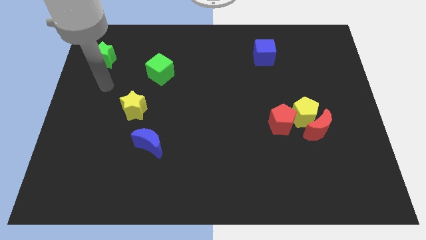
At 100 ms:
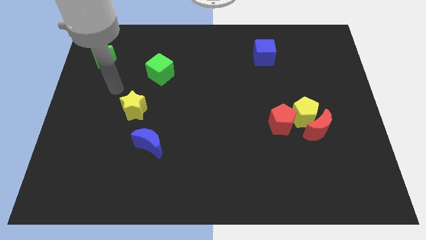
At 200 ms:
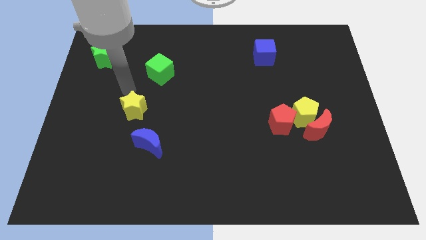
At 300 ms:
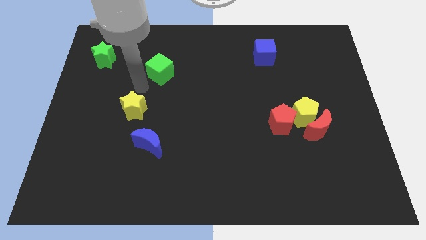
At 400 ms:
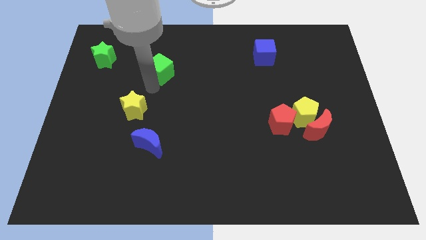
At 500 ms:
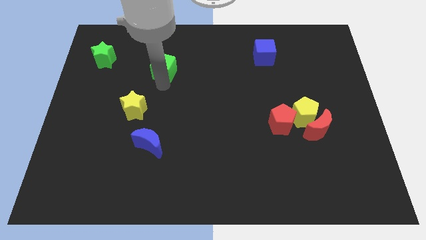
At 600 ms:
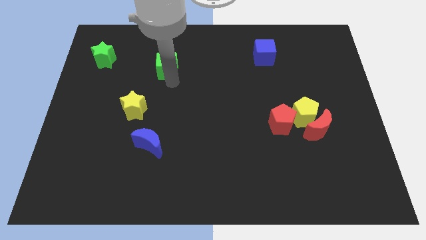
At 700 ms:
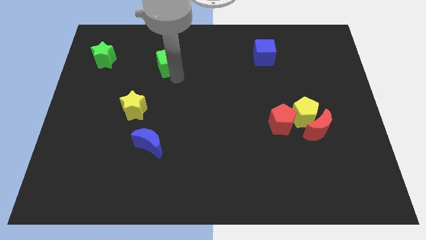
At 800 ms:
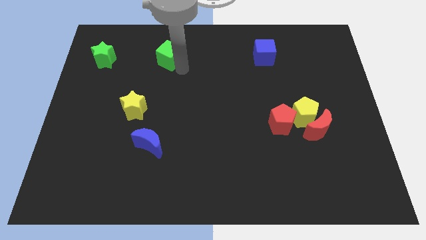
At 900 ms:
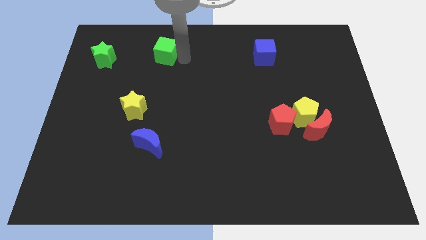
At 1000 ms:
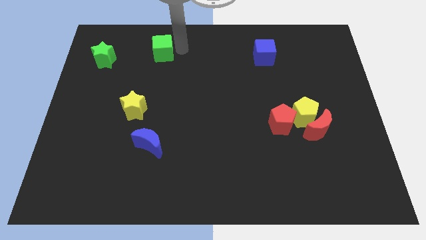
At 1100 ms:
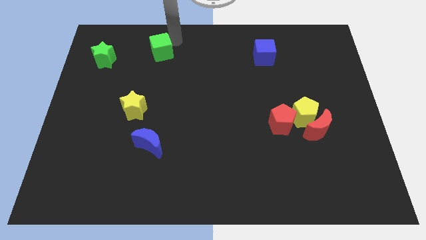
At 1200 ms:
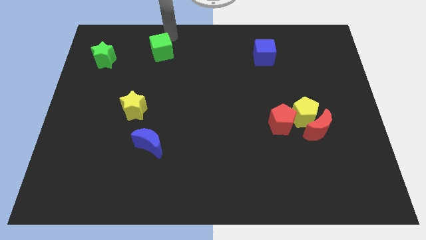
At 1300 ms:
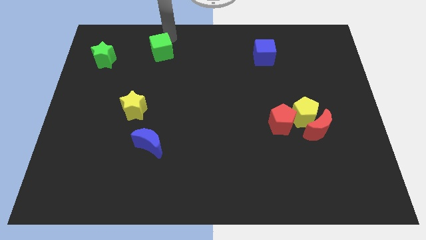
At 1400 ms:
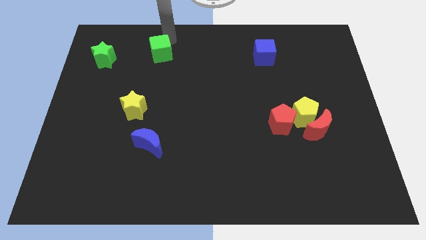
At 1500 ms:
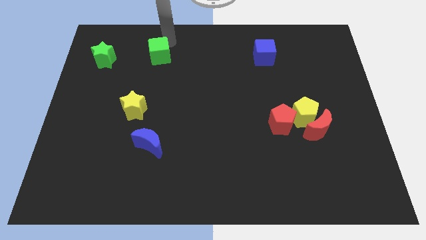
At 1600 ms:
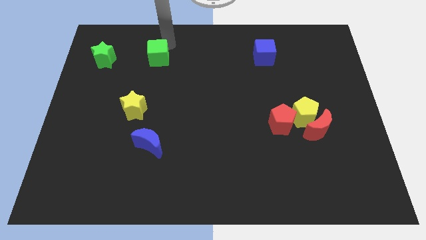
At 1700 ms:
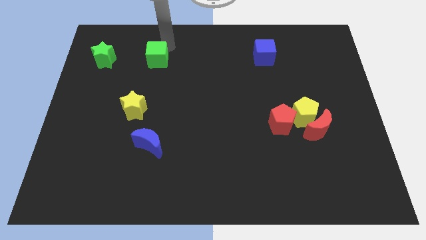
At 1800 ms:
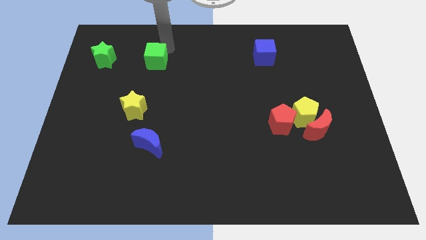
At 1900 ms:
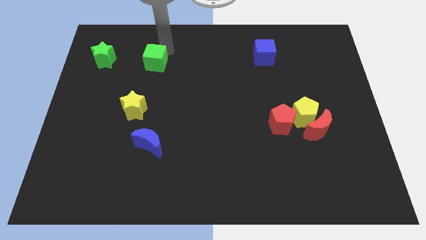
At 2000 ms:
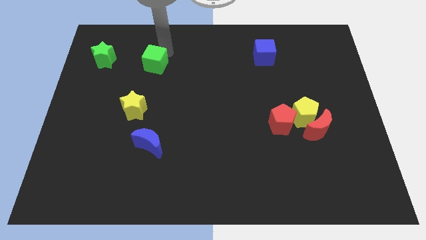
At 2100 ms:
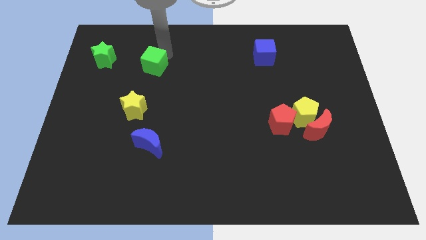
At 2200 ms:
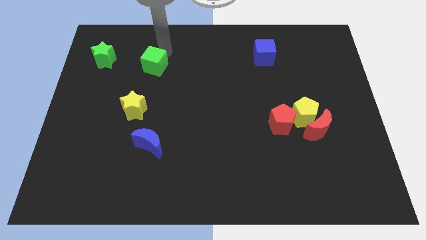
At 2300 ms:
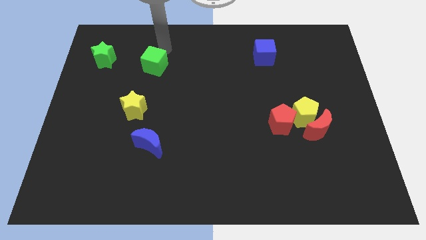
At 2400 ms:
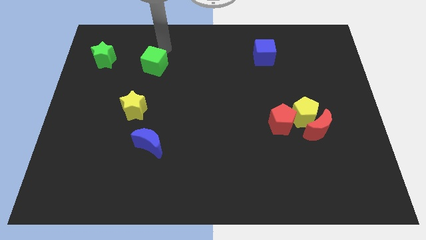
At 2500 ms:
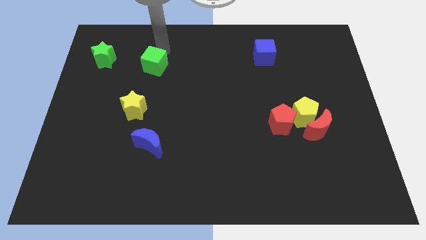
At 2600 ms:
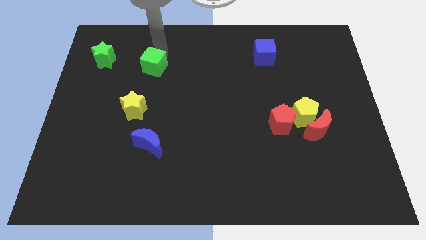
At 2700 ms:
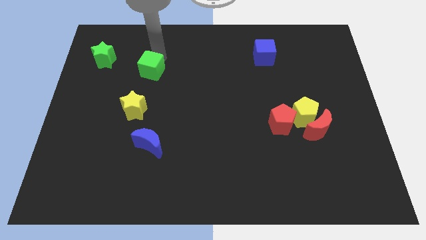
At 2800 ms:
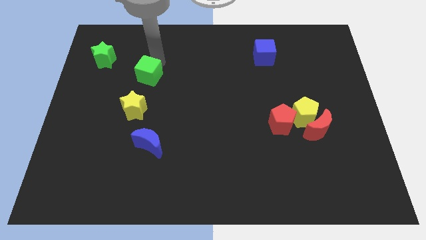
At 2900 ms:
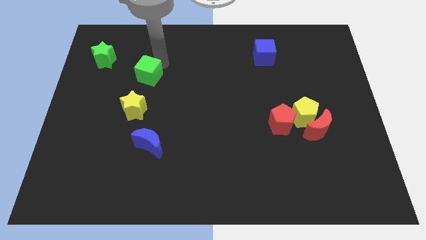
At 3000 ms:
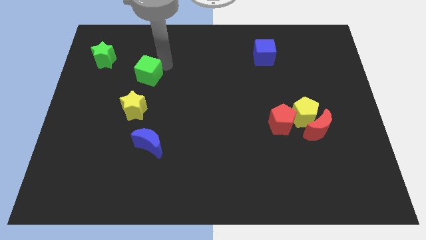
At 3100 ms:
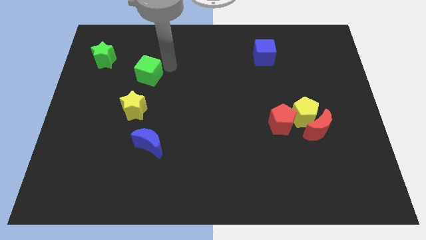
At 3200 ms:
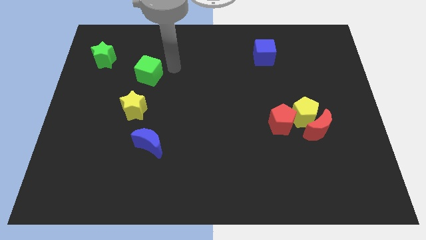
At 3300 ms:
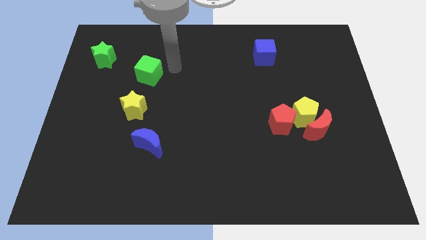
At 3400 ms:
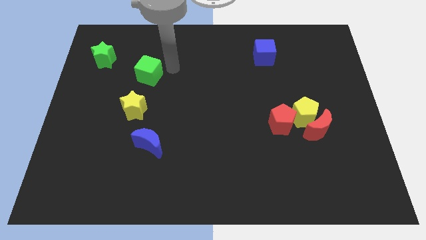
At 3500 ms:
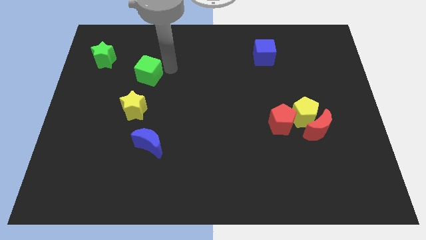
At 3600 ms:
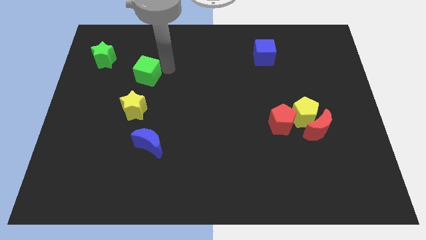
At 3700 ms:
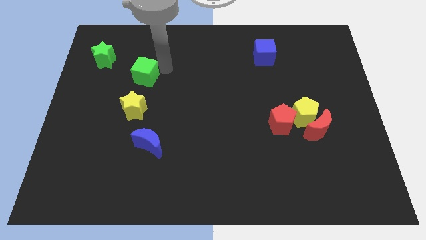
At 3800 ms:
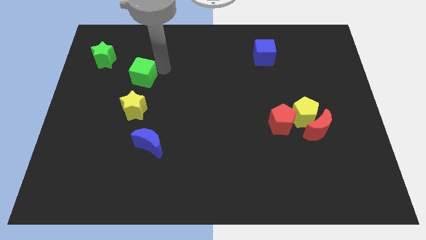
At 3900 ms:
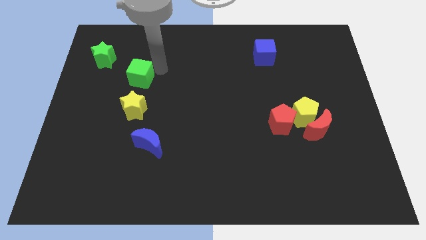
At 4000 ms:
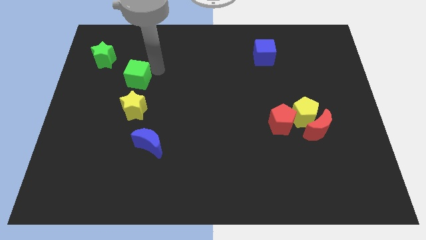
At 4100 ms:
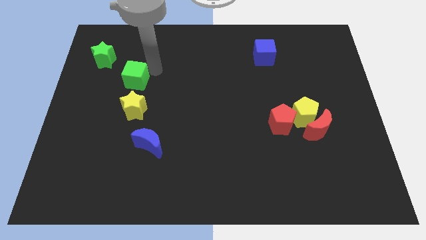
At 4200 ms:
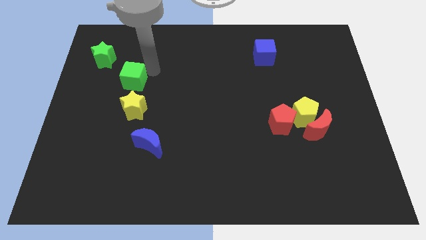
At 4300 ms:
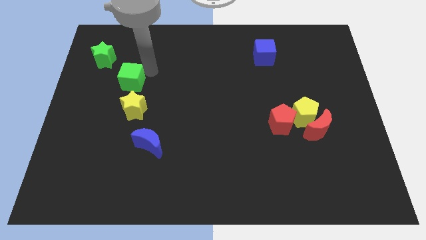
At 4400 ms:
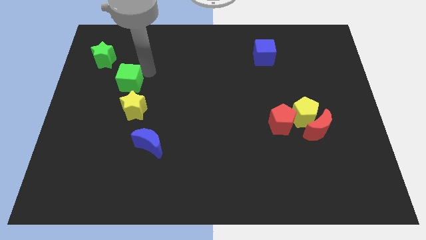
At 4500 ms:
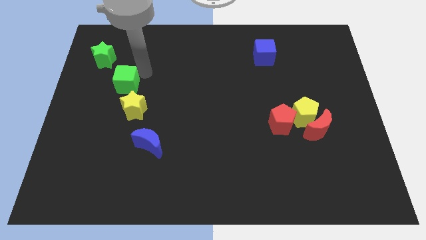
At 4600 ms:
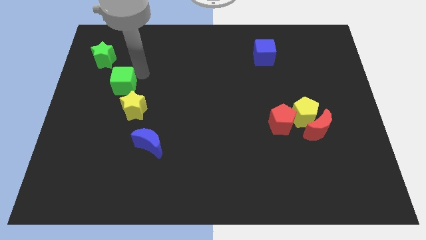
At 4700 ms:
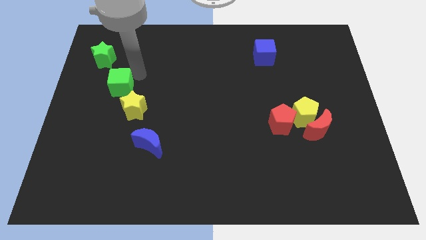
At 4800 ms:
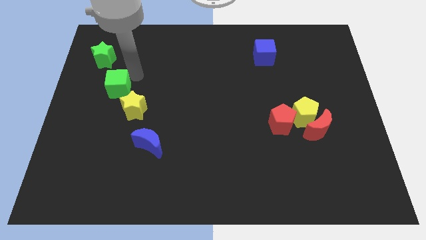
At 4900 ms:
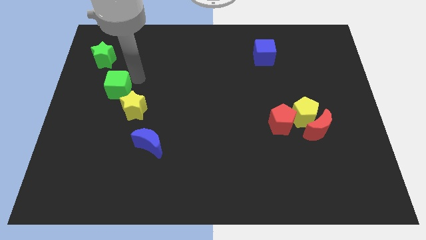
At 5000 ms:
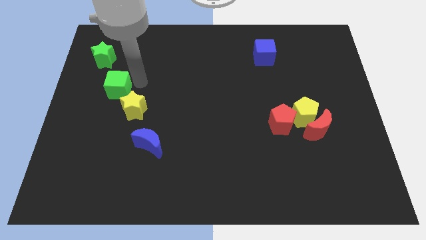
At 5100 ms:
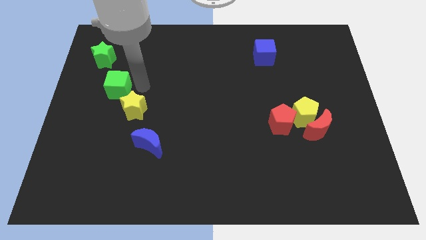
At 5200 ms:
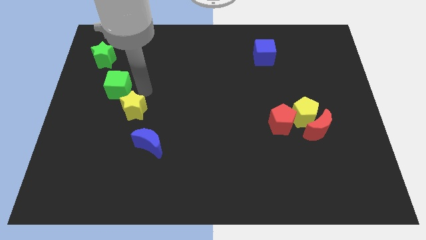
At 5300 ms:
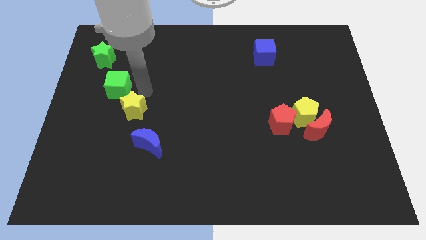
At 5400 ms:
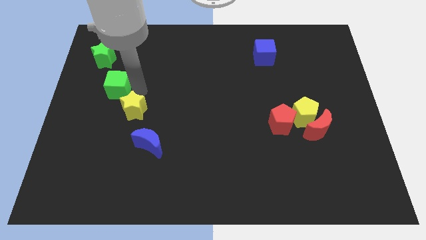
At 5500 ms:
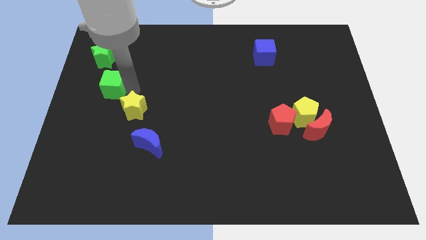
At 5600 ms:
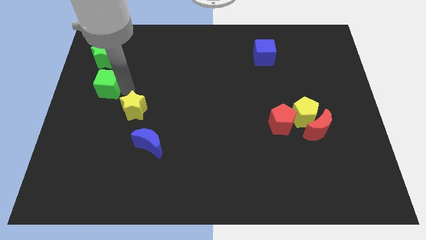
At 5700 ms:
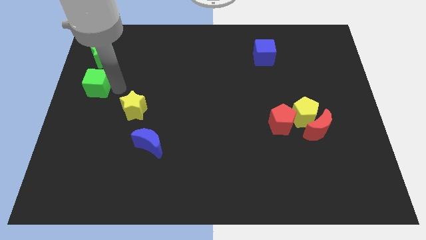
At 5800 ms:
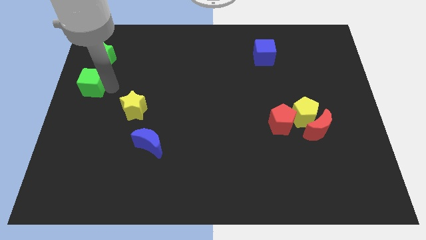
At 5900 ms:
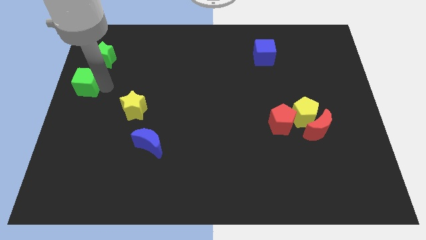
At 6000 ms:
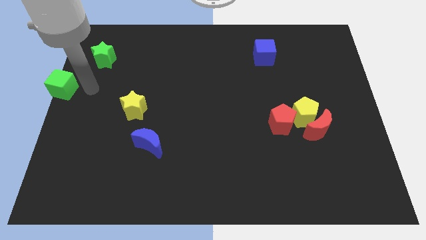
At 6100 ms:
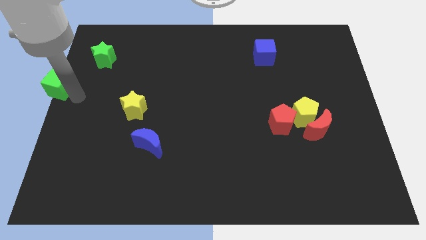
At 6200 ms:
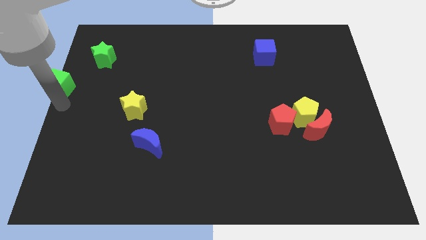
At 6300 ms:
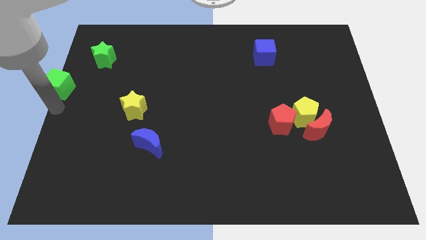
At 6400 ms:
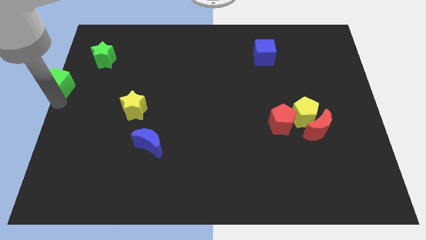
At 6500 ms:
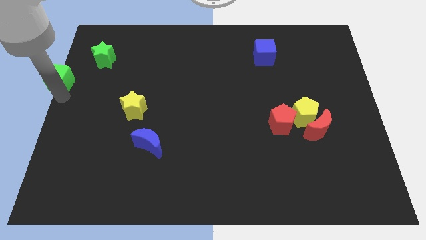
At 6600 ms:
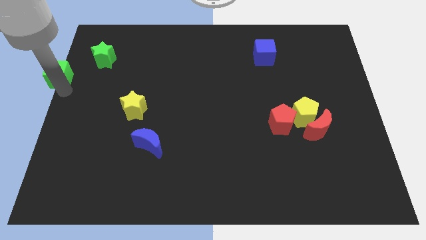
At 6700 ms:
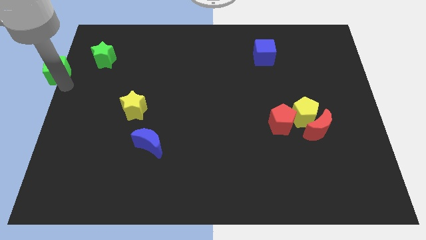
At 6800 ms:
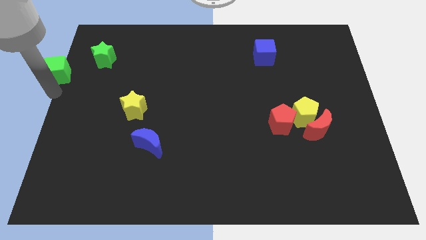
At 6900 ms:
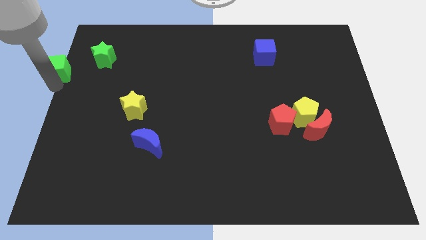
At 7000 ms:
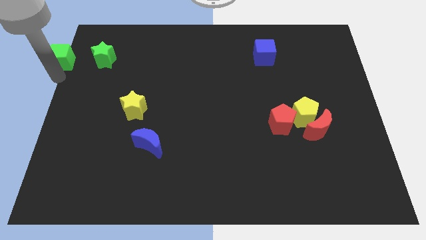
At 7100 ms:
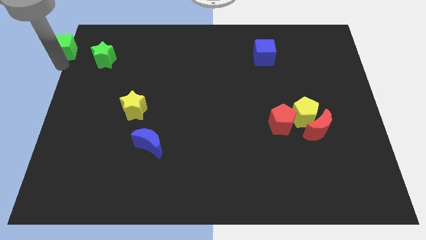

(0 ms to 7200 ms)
put the green cube to the top left of the board
